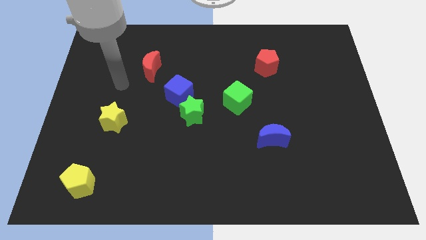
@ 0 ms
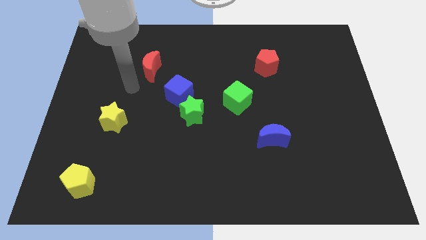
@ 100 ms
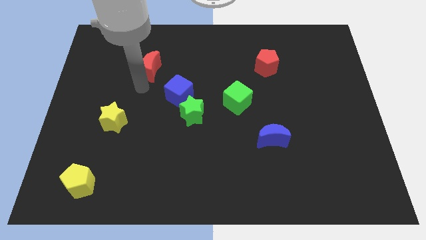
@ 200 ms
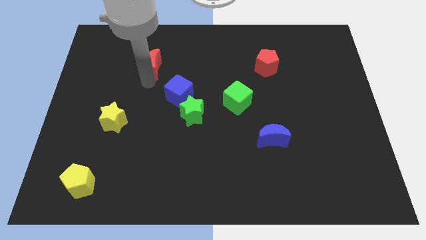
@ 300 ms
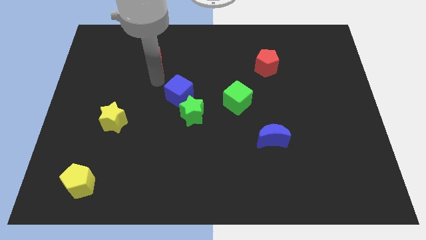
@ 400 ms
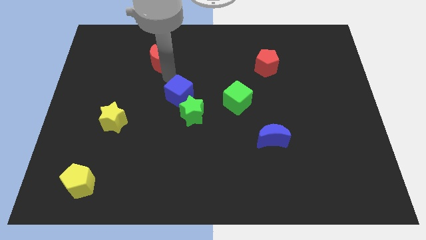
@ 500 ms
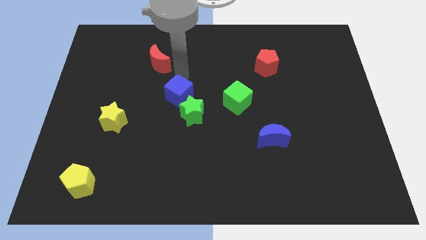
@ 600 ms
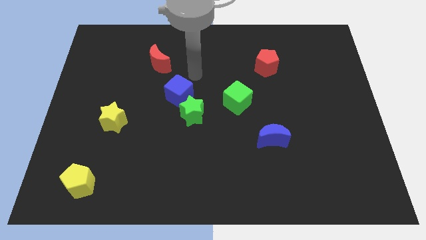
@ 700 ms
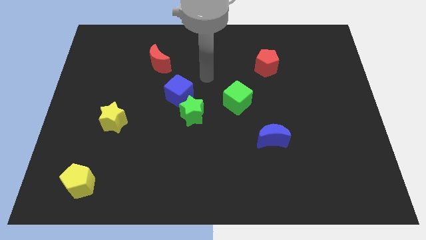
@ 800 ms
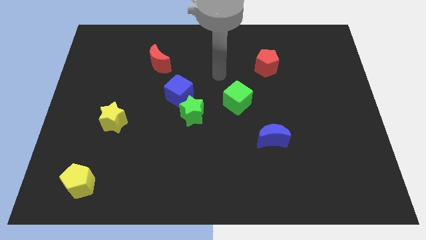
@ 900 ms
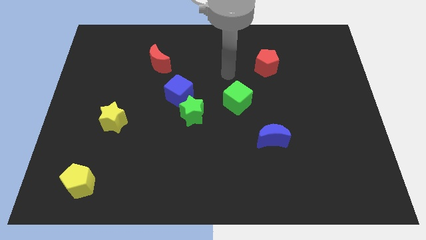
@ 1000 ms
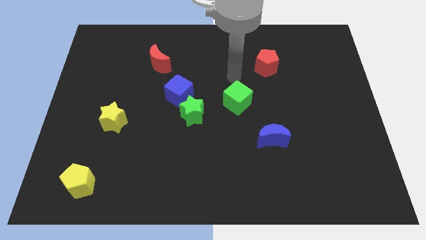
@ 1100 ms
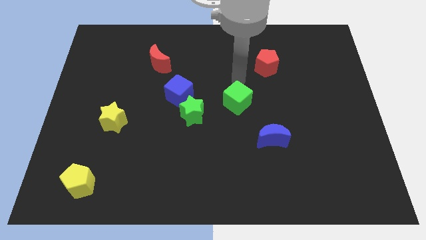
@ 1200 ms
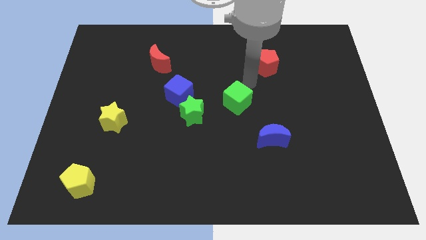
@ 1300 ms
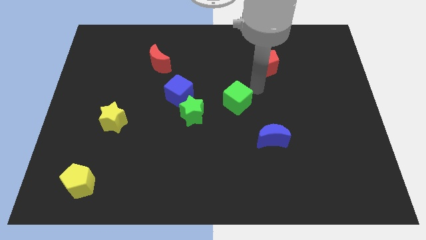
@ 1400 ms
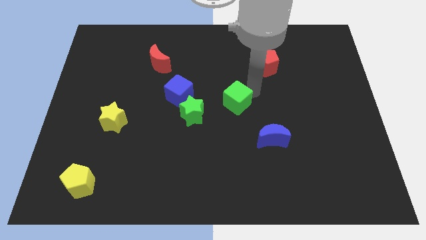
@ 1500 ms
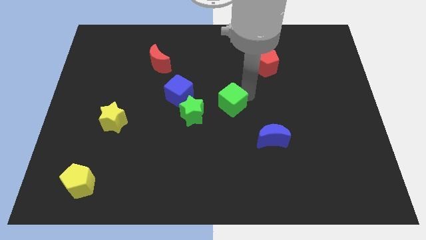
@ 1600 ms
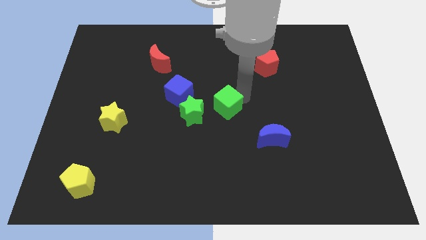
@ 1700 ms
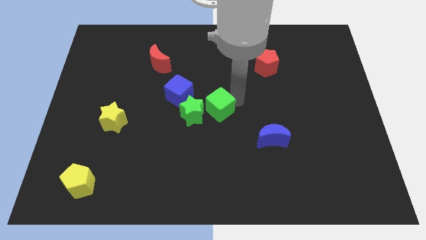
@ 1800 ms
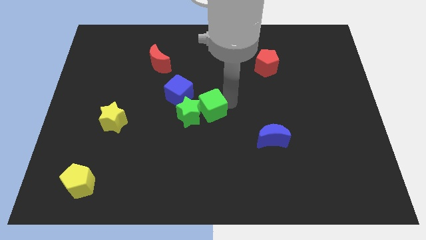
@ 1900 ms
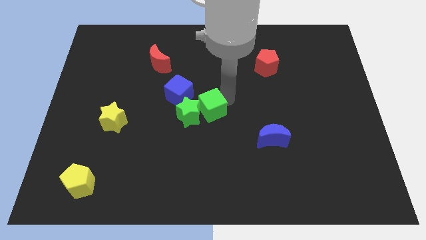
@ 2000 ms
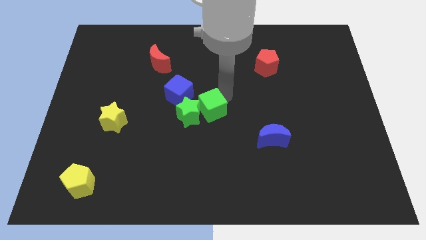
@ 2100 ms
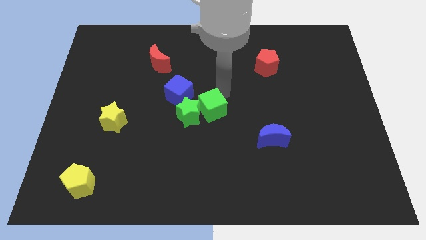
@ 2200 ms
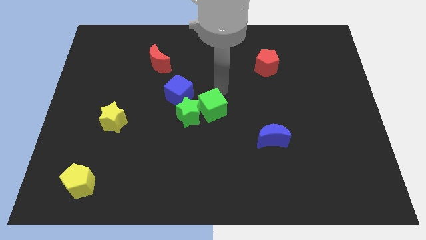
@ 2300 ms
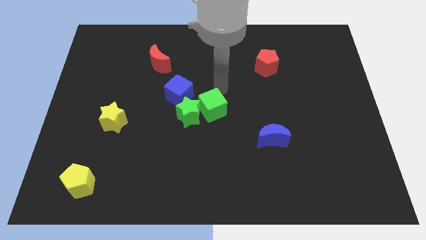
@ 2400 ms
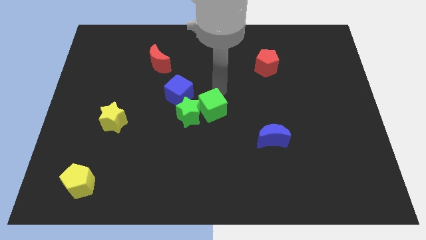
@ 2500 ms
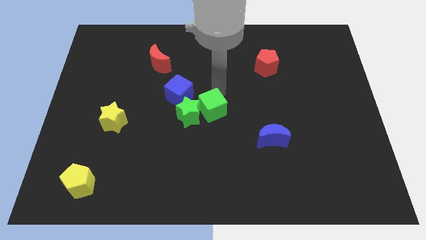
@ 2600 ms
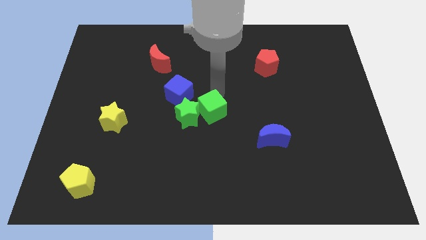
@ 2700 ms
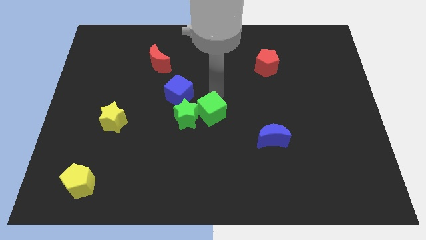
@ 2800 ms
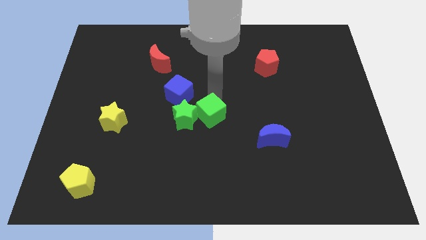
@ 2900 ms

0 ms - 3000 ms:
slide the green cube down and then to the left somewhat

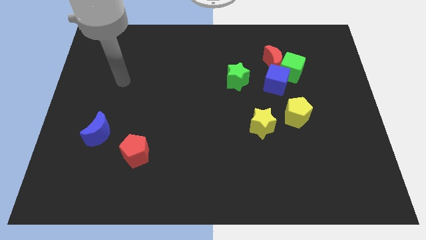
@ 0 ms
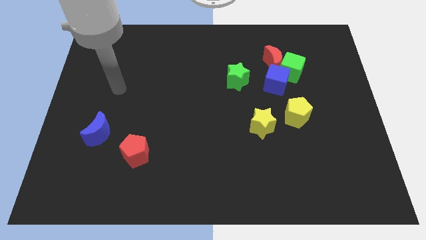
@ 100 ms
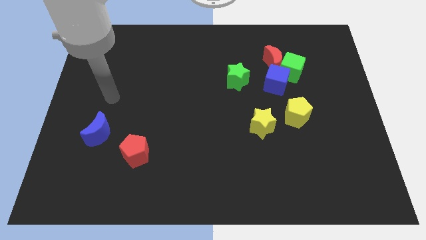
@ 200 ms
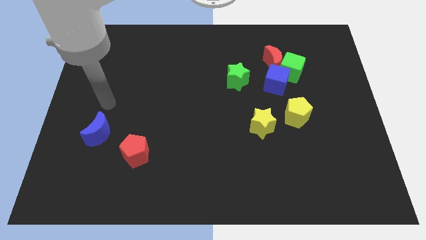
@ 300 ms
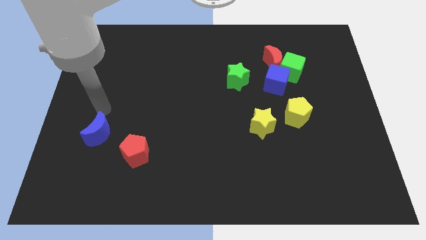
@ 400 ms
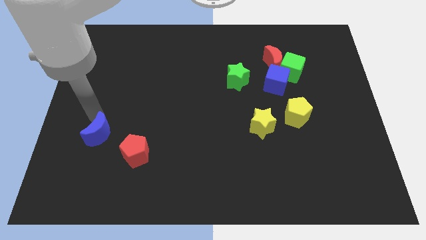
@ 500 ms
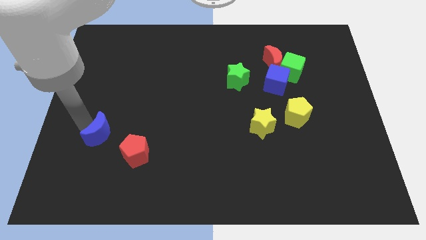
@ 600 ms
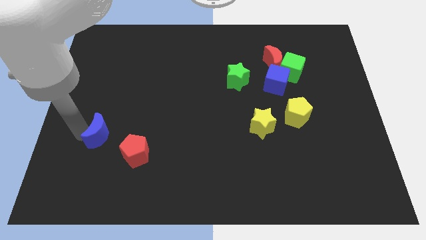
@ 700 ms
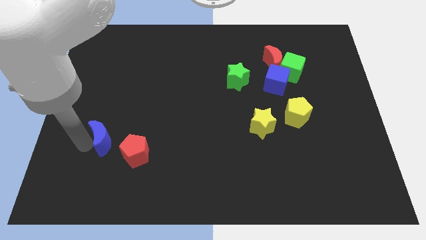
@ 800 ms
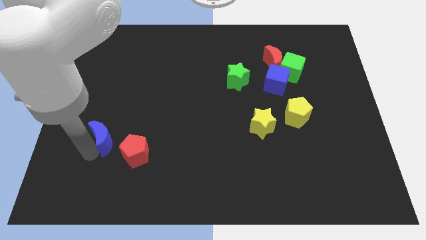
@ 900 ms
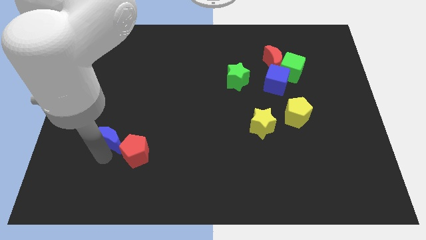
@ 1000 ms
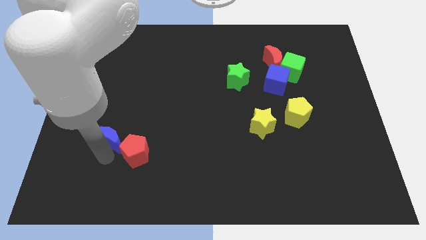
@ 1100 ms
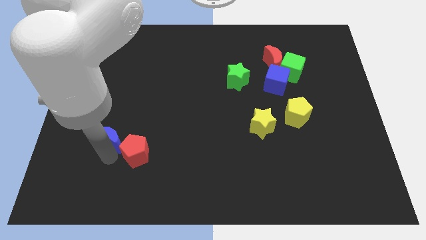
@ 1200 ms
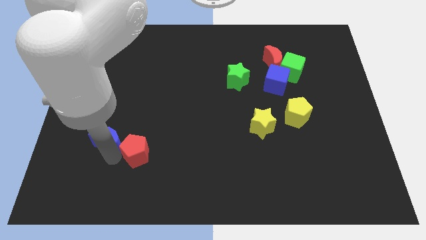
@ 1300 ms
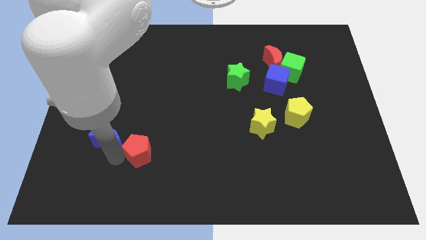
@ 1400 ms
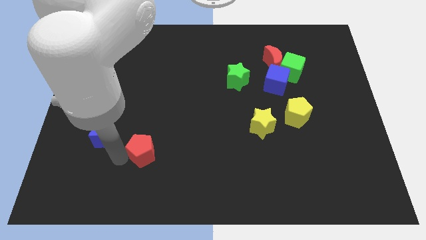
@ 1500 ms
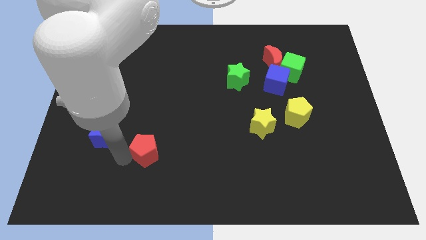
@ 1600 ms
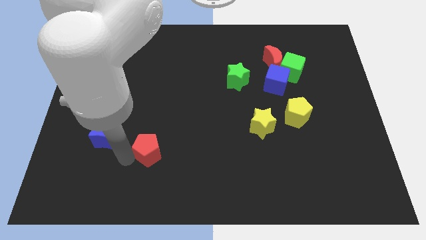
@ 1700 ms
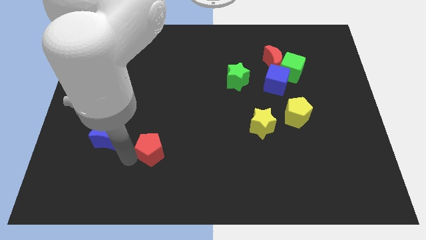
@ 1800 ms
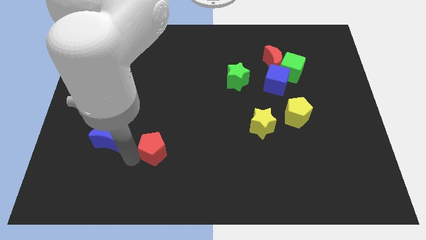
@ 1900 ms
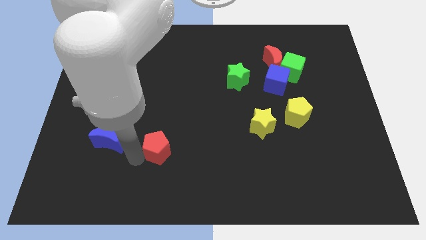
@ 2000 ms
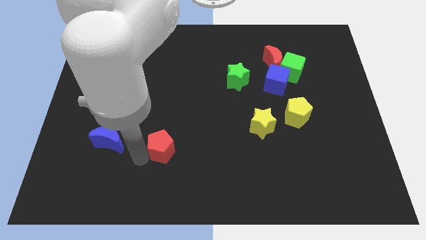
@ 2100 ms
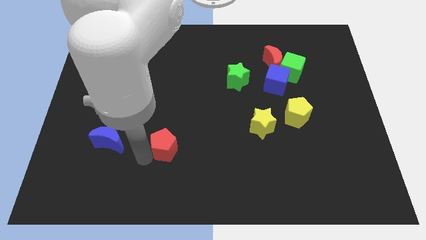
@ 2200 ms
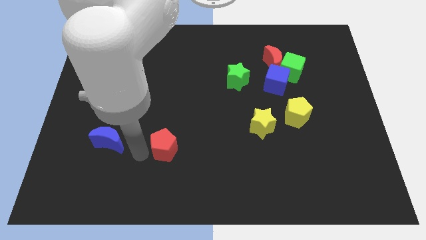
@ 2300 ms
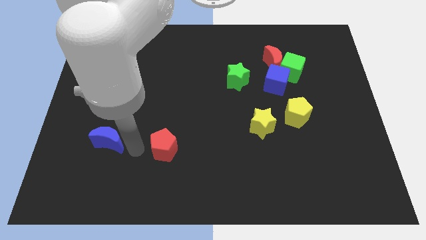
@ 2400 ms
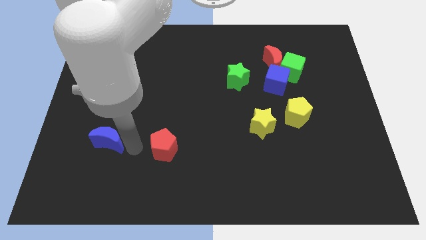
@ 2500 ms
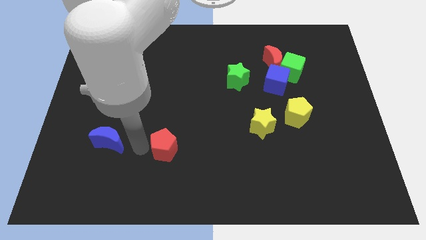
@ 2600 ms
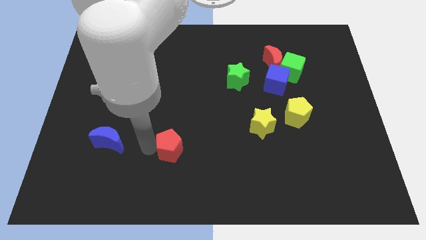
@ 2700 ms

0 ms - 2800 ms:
push the red pentagon right slightly

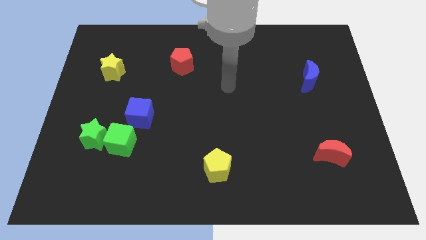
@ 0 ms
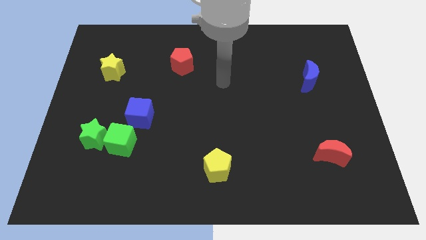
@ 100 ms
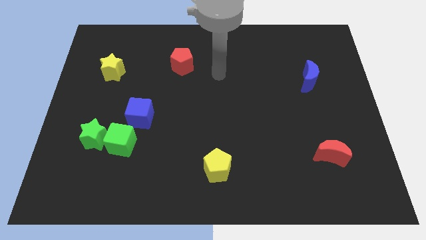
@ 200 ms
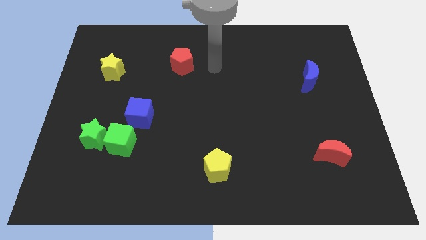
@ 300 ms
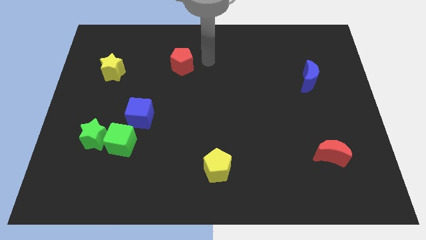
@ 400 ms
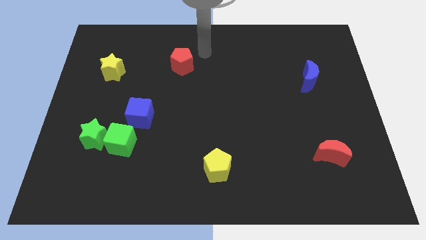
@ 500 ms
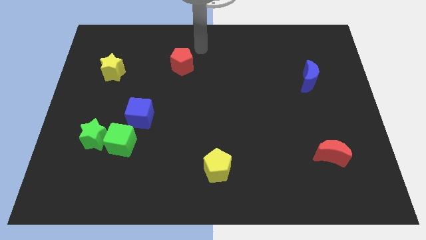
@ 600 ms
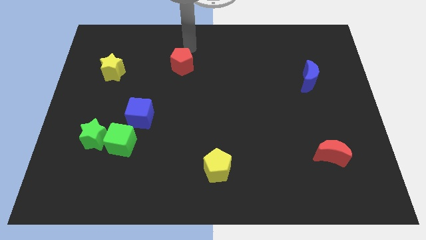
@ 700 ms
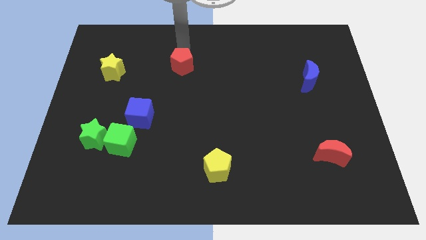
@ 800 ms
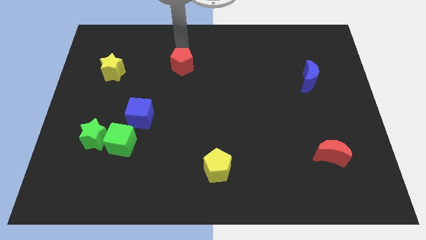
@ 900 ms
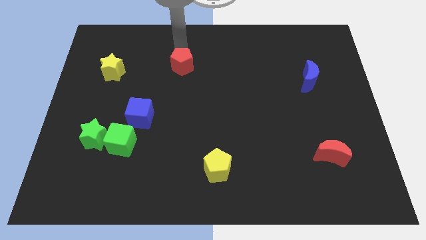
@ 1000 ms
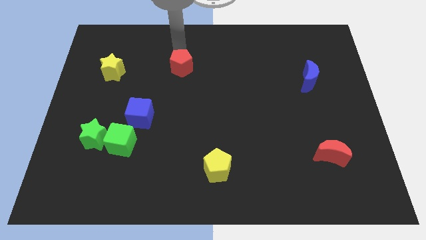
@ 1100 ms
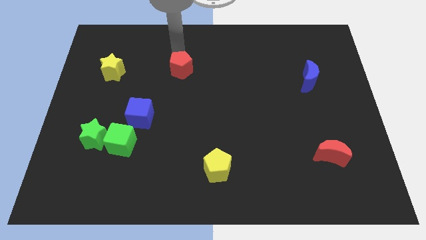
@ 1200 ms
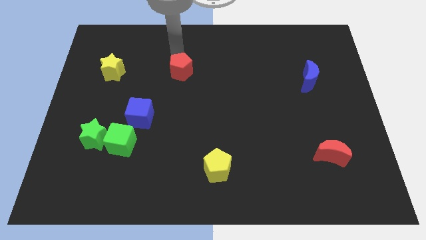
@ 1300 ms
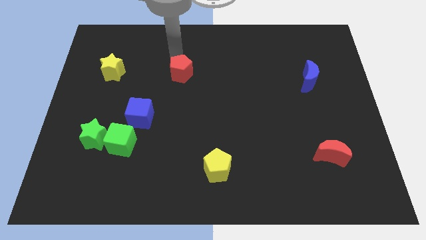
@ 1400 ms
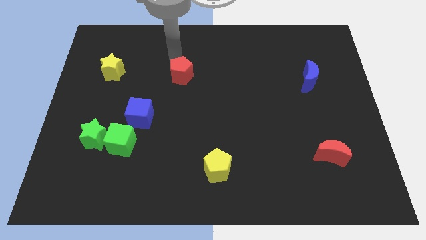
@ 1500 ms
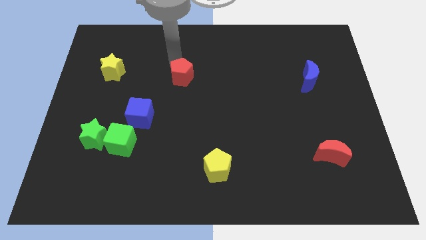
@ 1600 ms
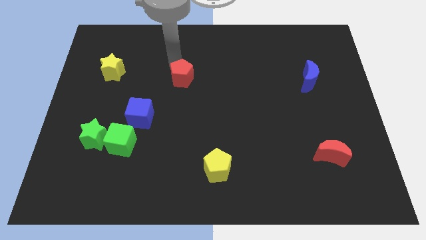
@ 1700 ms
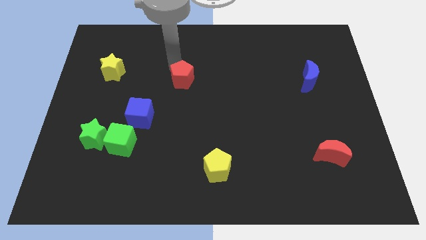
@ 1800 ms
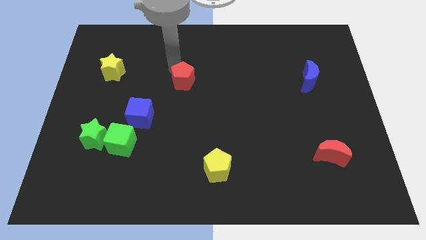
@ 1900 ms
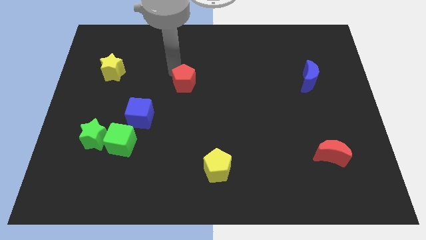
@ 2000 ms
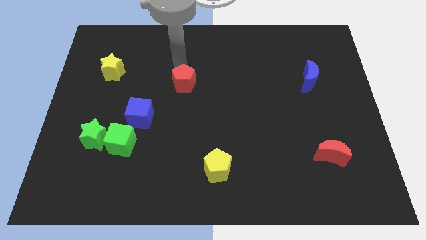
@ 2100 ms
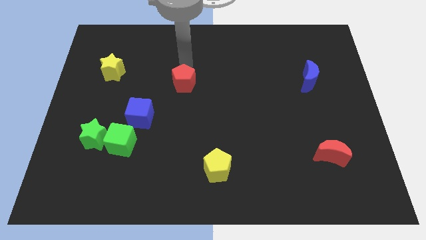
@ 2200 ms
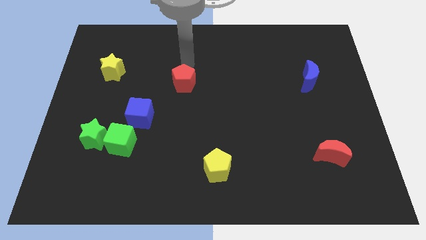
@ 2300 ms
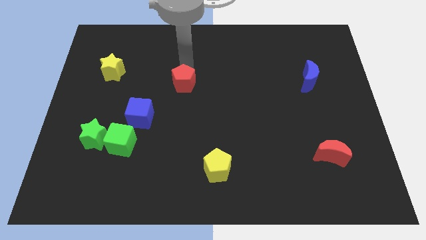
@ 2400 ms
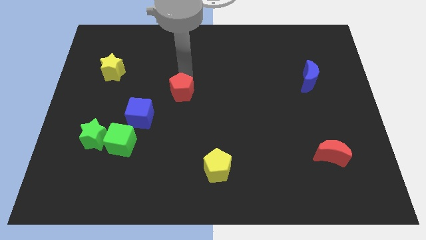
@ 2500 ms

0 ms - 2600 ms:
move the red pentagon downwards slightly
